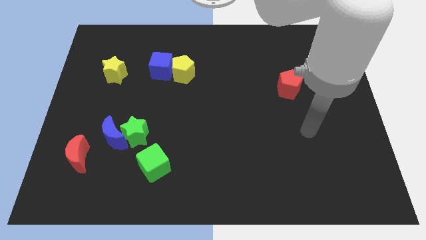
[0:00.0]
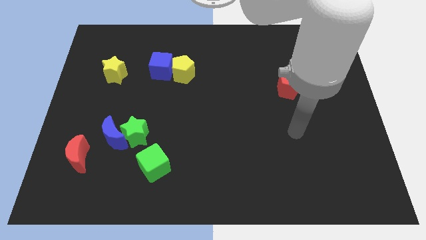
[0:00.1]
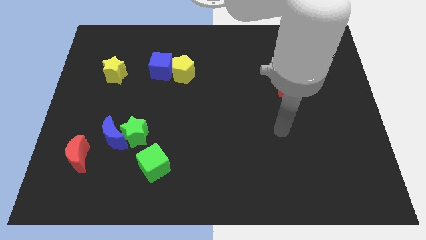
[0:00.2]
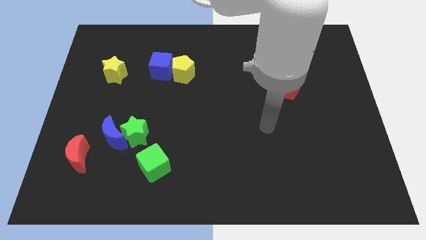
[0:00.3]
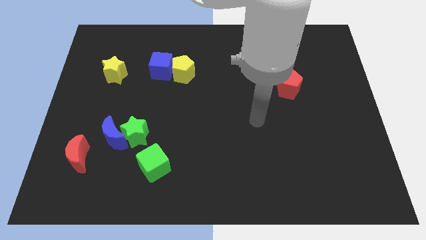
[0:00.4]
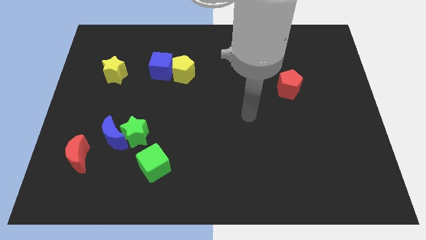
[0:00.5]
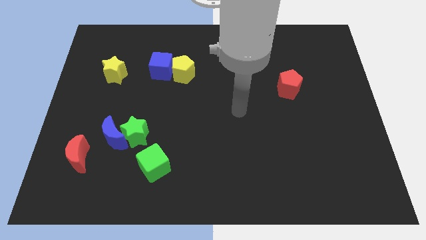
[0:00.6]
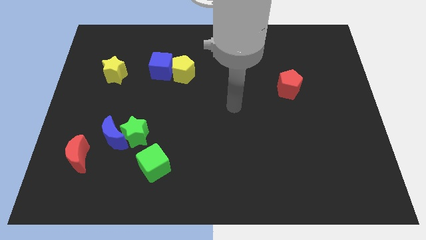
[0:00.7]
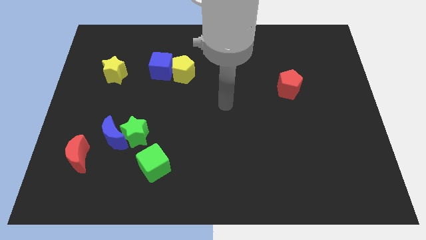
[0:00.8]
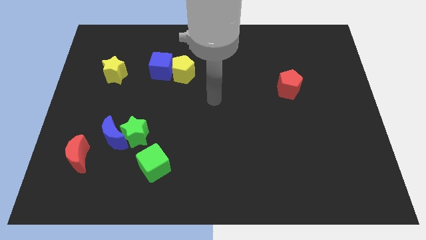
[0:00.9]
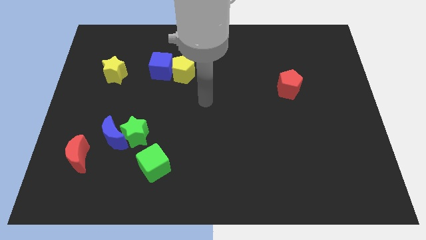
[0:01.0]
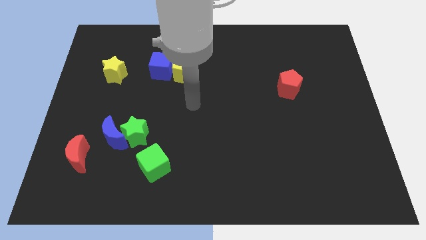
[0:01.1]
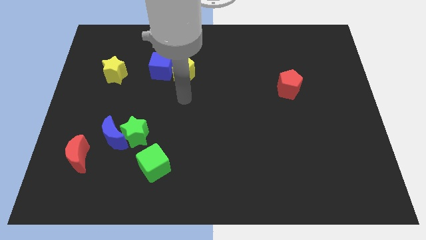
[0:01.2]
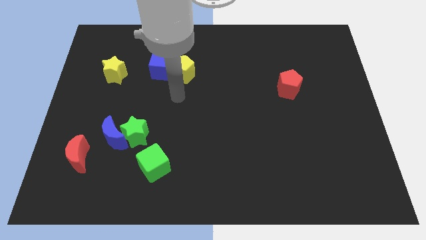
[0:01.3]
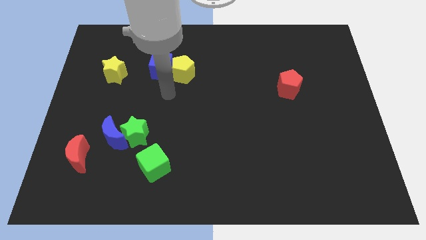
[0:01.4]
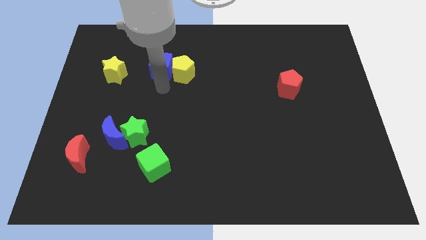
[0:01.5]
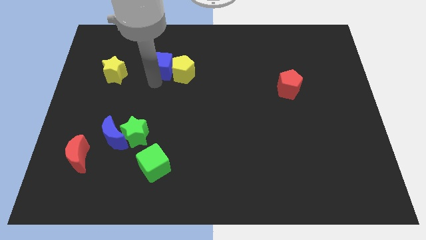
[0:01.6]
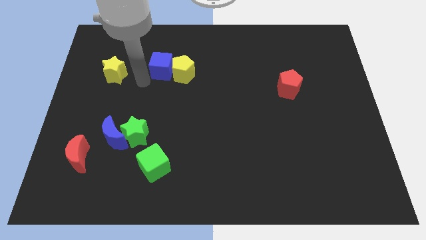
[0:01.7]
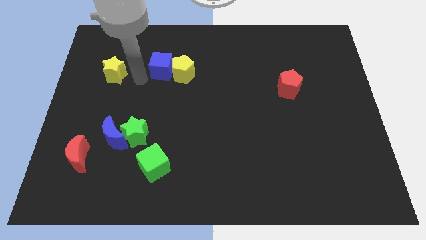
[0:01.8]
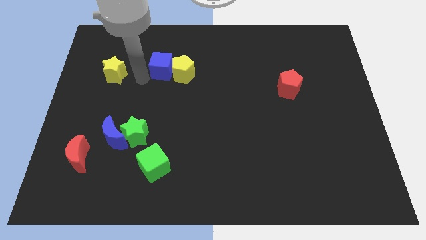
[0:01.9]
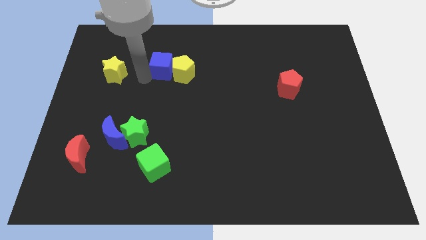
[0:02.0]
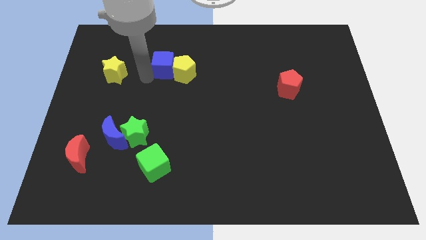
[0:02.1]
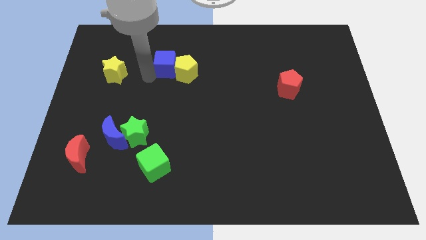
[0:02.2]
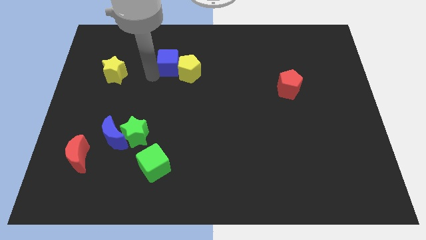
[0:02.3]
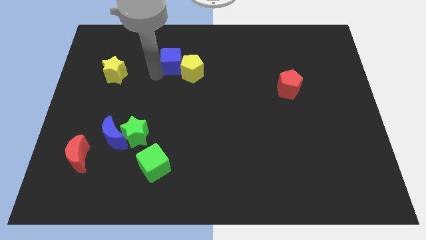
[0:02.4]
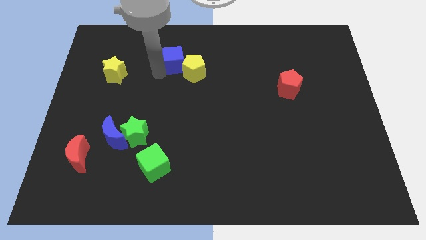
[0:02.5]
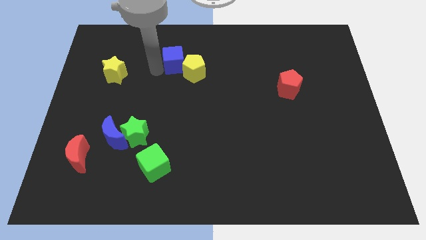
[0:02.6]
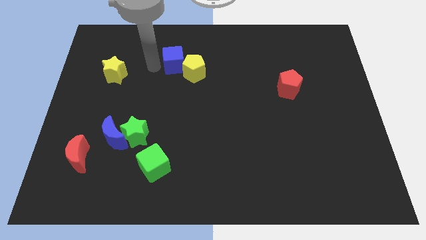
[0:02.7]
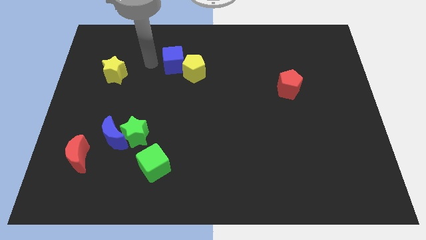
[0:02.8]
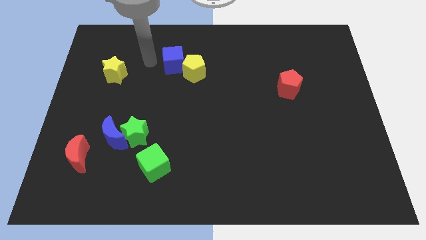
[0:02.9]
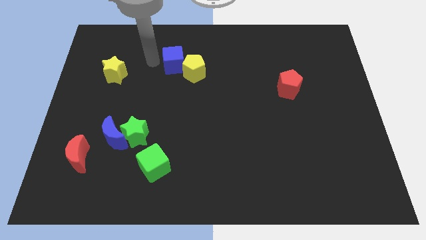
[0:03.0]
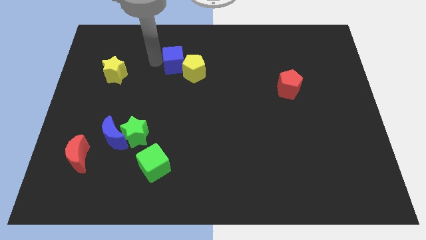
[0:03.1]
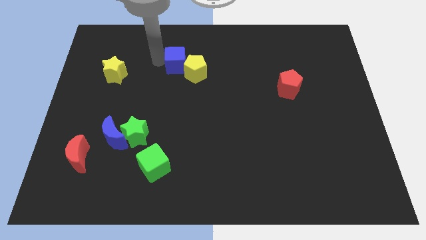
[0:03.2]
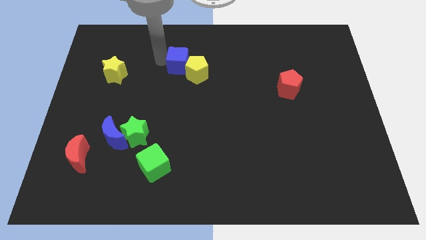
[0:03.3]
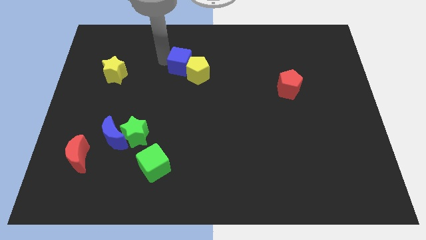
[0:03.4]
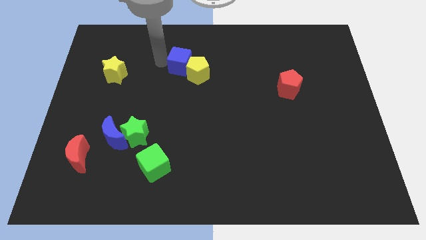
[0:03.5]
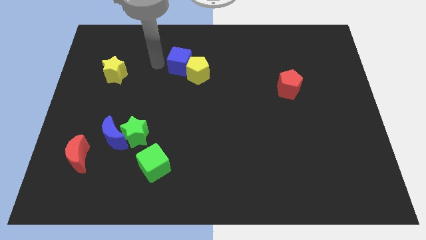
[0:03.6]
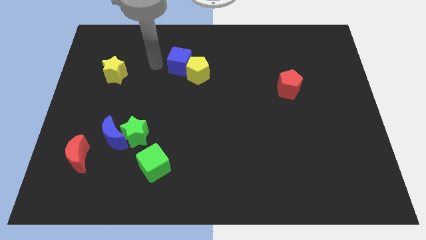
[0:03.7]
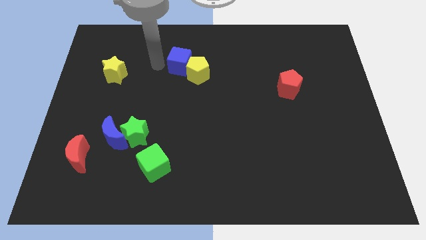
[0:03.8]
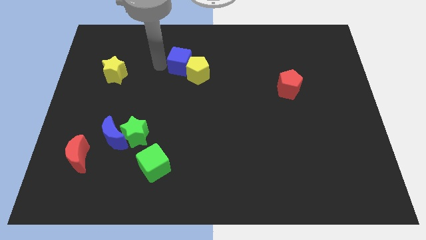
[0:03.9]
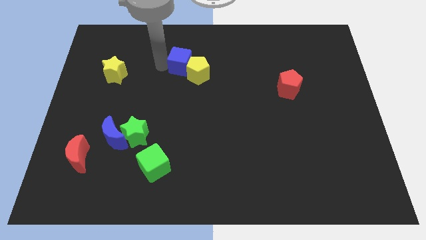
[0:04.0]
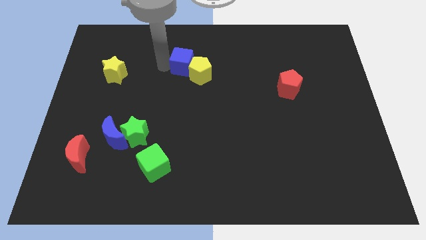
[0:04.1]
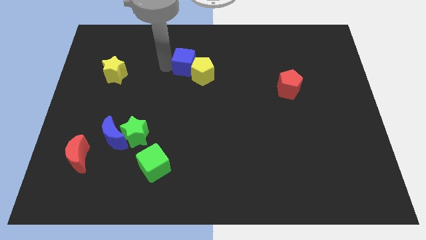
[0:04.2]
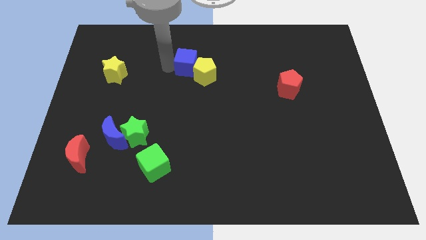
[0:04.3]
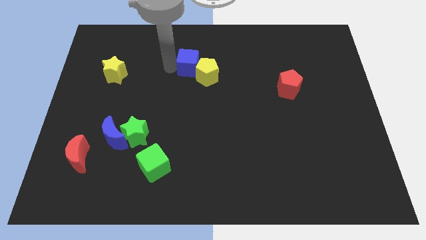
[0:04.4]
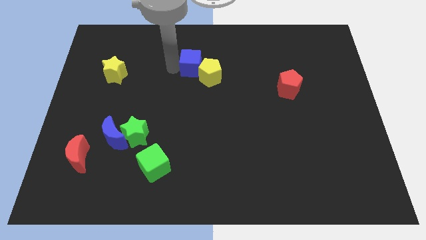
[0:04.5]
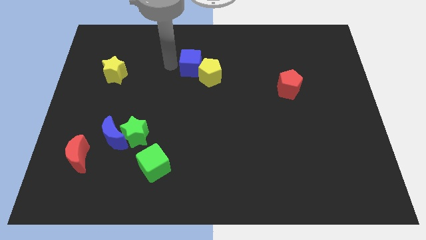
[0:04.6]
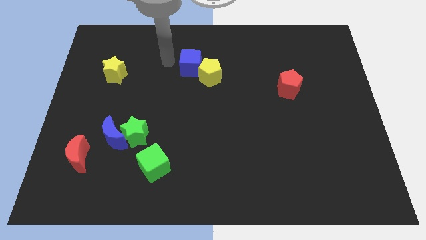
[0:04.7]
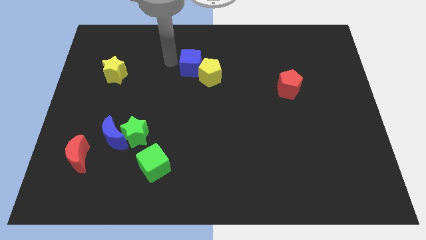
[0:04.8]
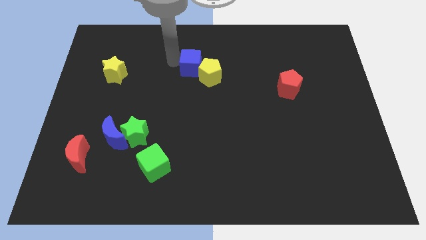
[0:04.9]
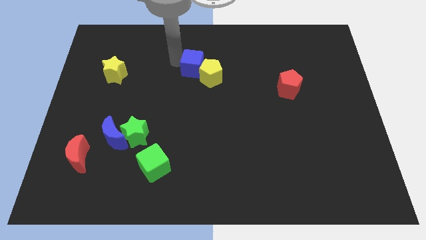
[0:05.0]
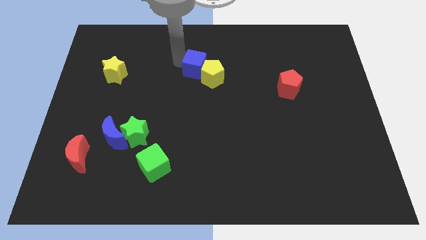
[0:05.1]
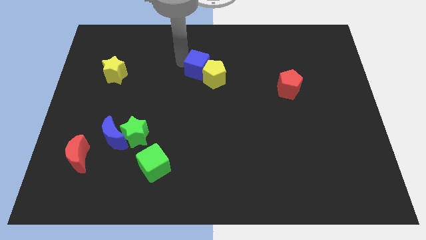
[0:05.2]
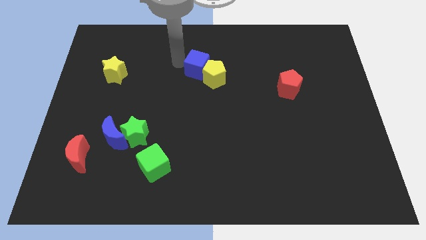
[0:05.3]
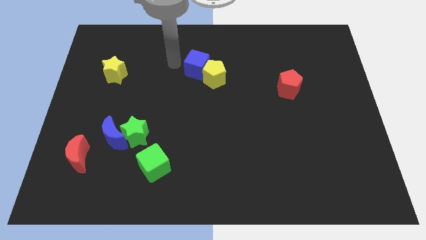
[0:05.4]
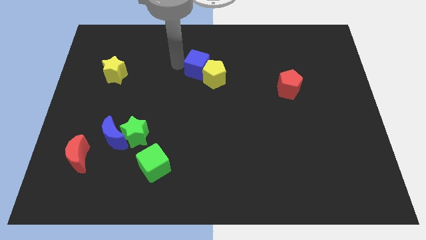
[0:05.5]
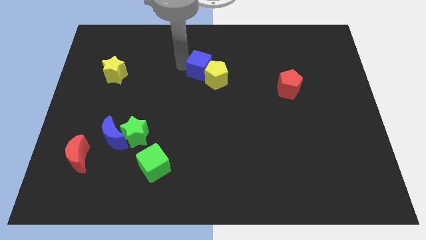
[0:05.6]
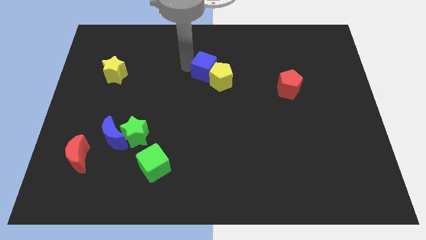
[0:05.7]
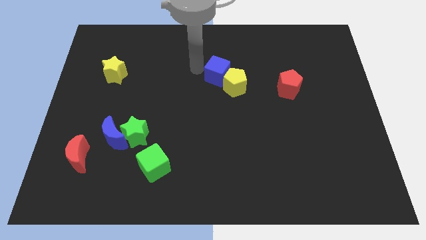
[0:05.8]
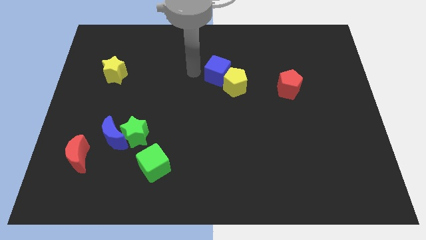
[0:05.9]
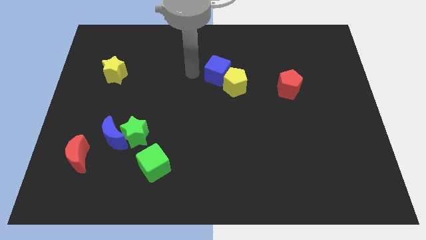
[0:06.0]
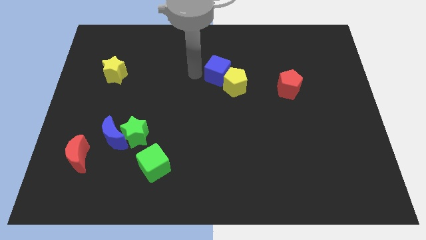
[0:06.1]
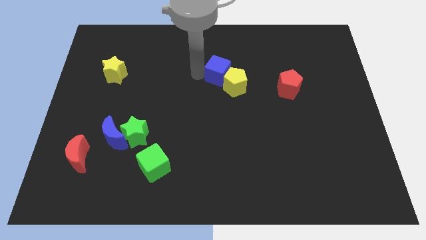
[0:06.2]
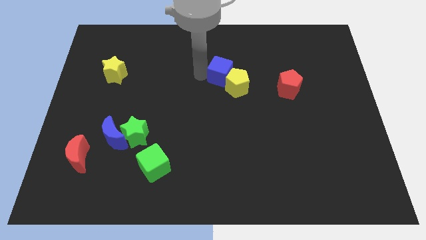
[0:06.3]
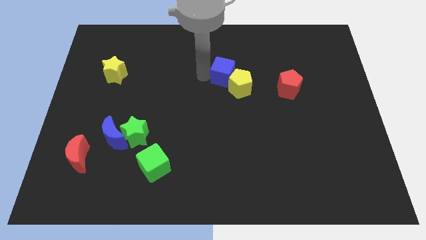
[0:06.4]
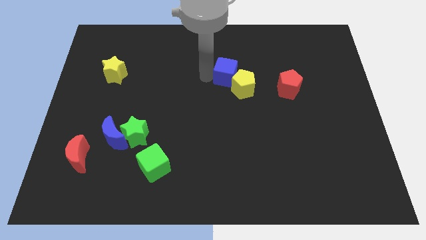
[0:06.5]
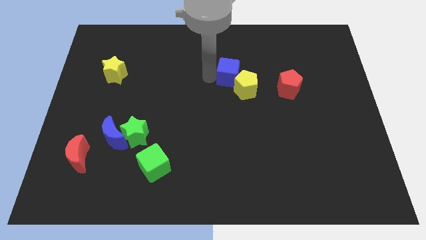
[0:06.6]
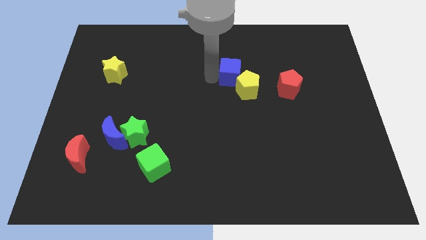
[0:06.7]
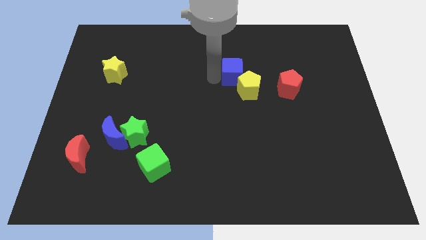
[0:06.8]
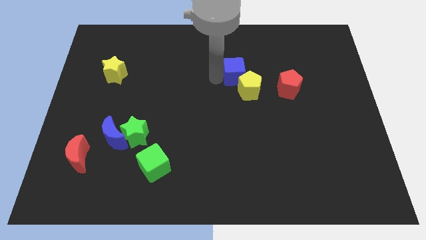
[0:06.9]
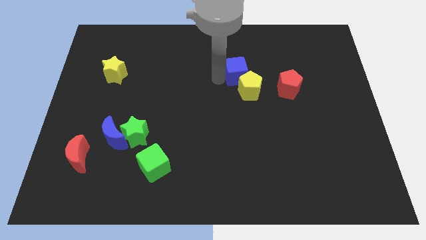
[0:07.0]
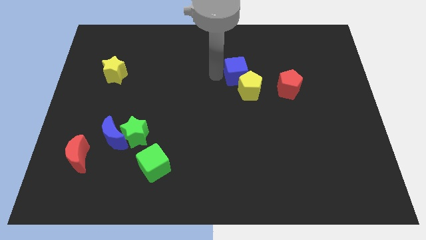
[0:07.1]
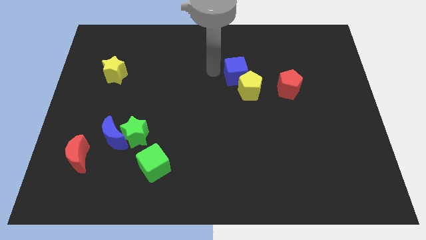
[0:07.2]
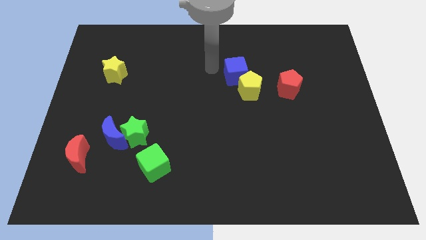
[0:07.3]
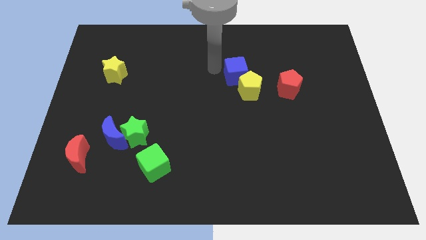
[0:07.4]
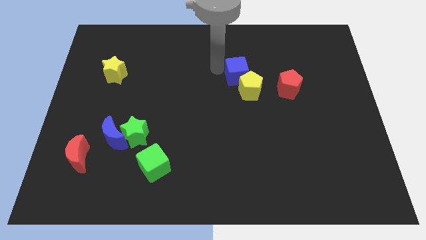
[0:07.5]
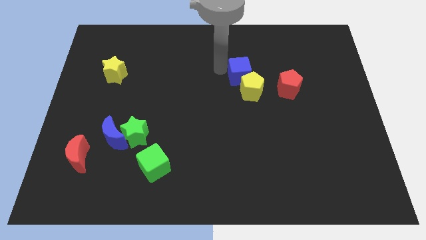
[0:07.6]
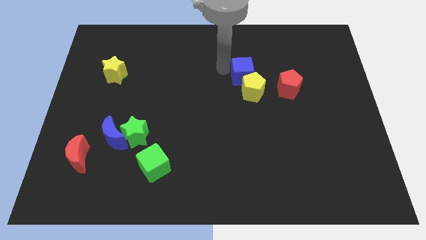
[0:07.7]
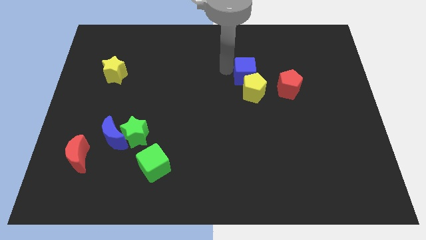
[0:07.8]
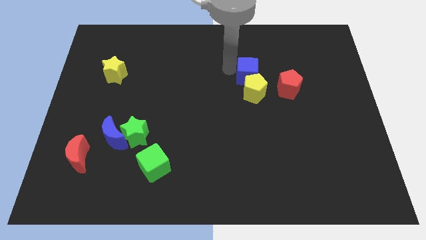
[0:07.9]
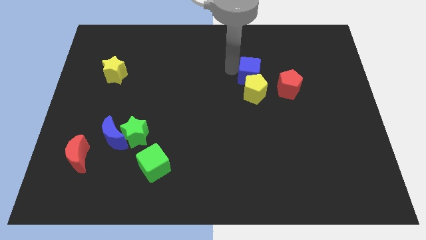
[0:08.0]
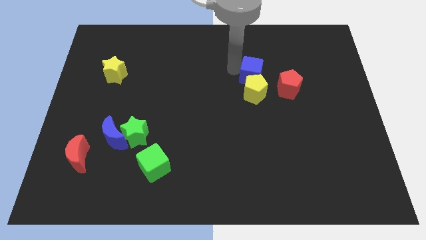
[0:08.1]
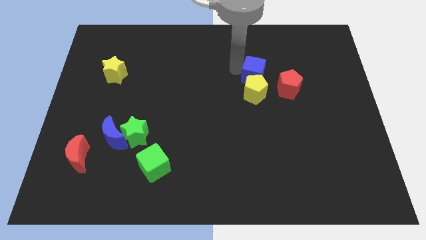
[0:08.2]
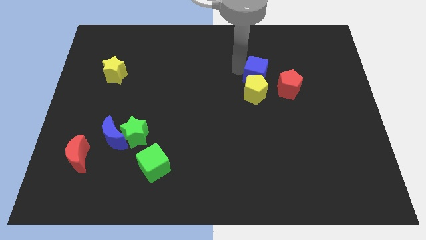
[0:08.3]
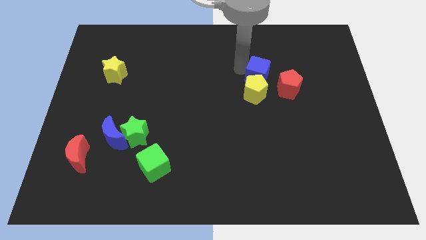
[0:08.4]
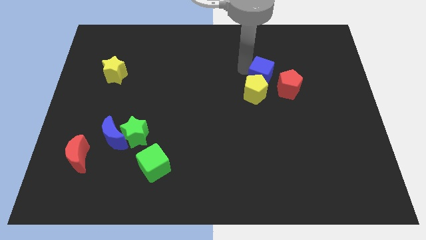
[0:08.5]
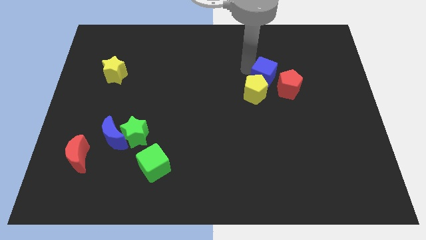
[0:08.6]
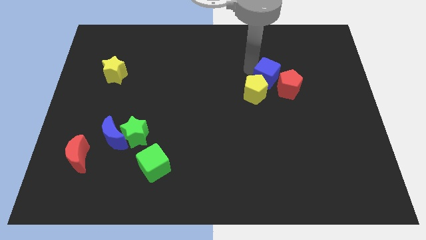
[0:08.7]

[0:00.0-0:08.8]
push the blue cube next to the red pentagon
